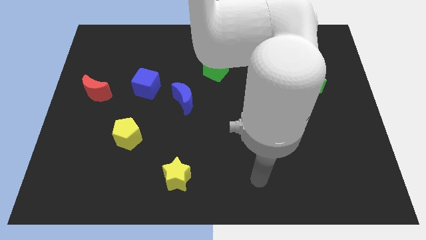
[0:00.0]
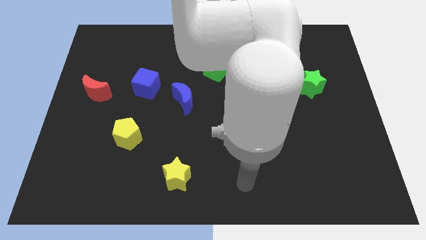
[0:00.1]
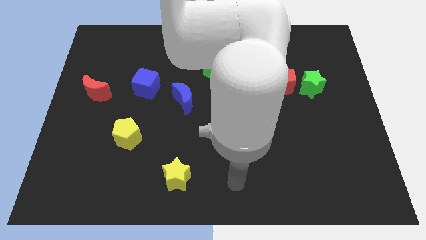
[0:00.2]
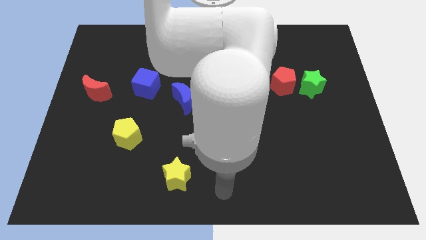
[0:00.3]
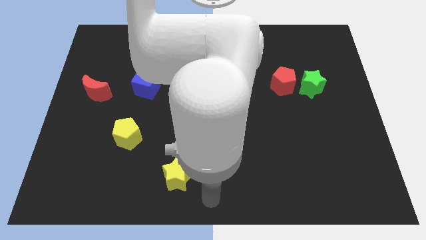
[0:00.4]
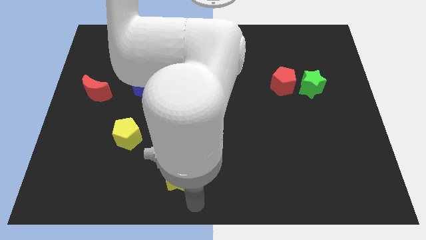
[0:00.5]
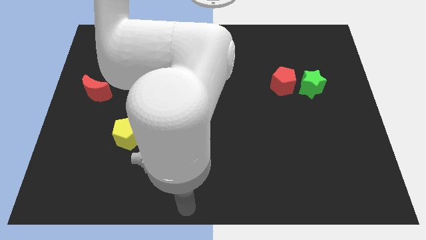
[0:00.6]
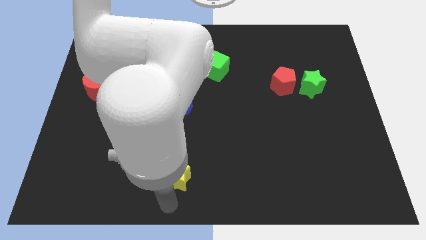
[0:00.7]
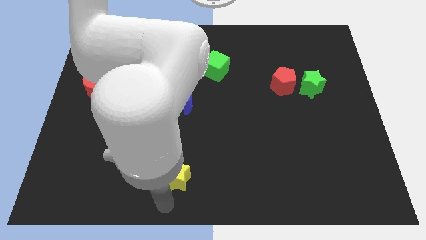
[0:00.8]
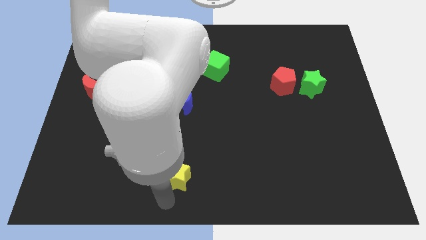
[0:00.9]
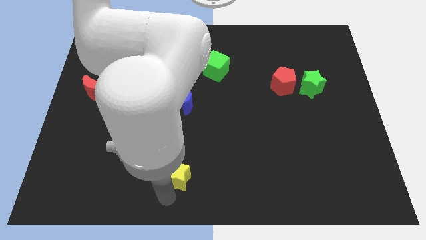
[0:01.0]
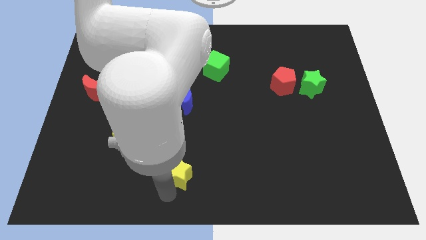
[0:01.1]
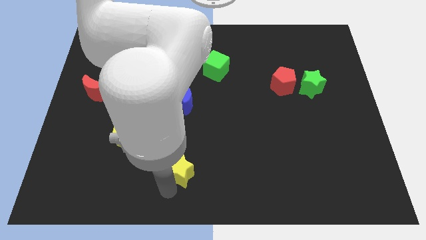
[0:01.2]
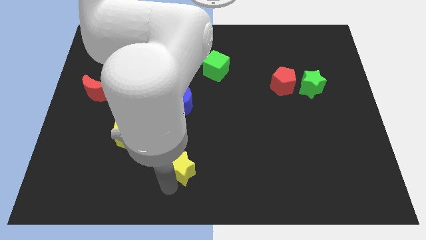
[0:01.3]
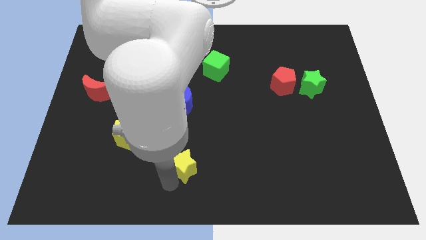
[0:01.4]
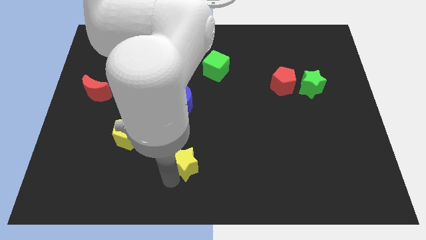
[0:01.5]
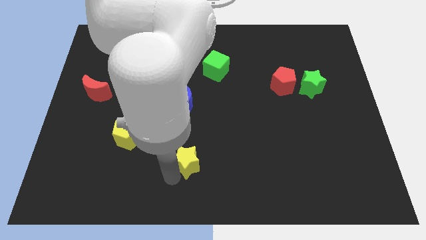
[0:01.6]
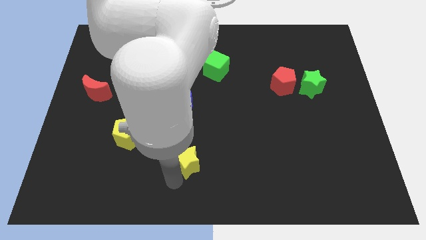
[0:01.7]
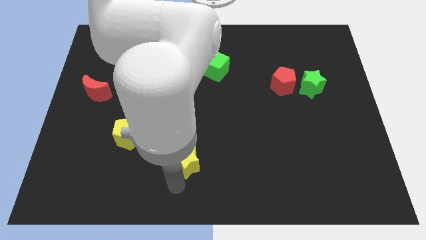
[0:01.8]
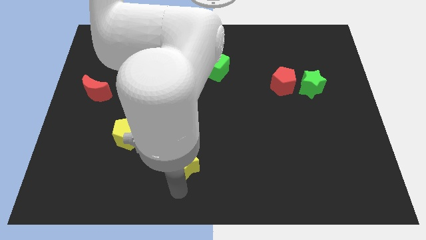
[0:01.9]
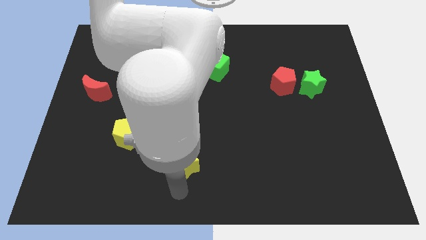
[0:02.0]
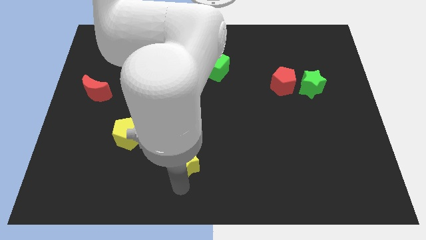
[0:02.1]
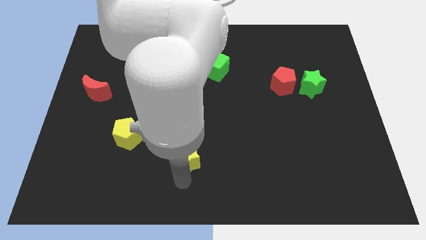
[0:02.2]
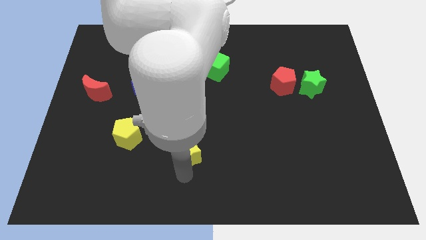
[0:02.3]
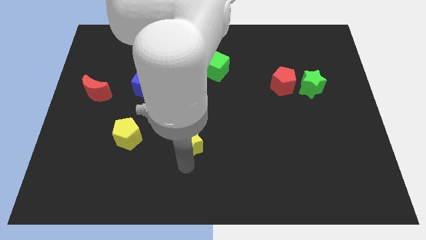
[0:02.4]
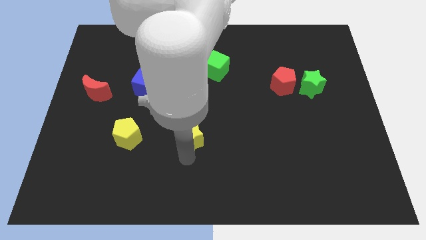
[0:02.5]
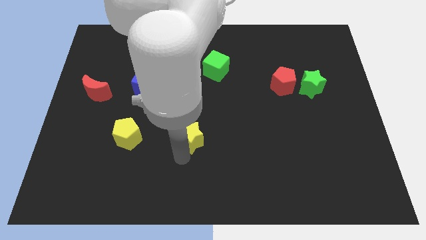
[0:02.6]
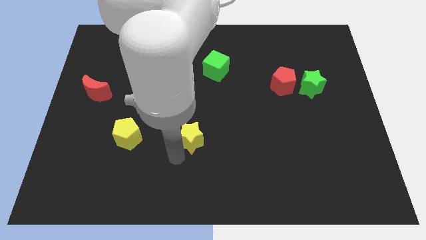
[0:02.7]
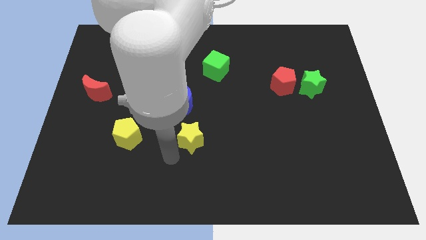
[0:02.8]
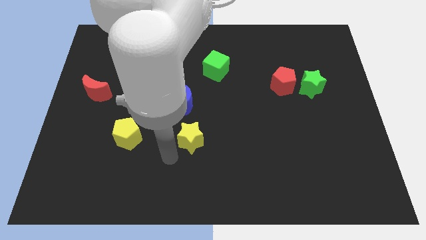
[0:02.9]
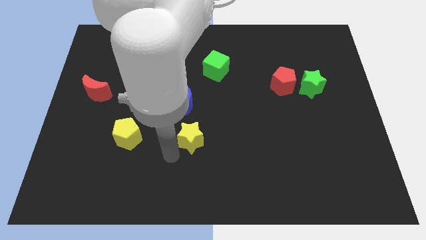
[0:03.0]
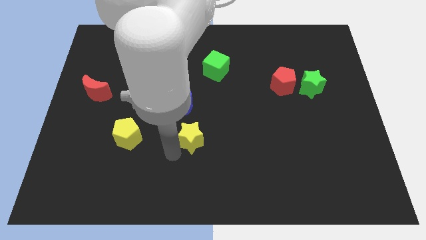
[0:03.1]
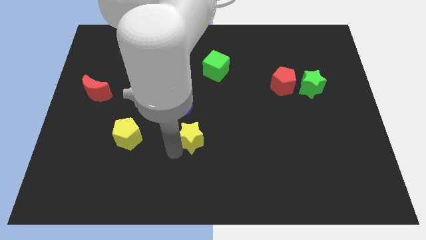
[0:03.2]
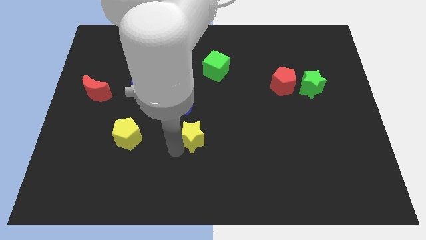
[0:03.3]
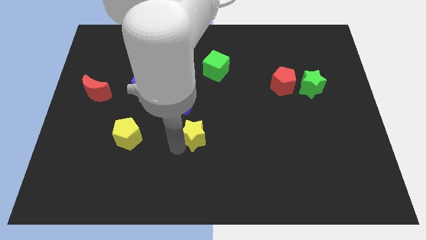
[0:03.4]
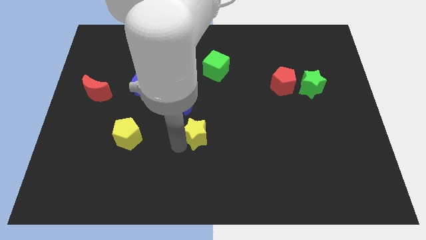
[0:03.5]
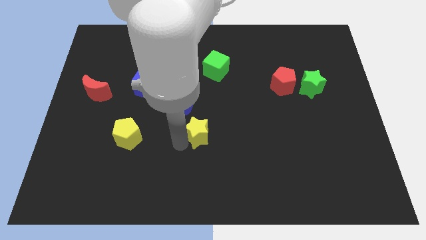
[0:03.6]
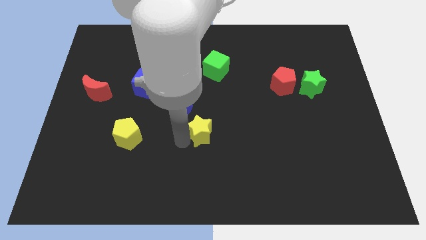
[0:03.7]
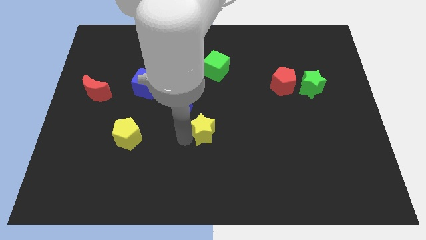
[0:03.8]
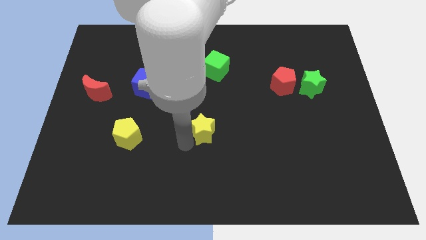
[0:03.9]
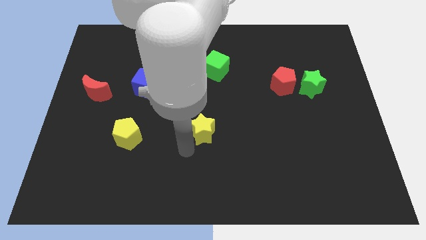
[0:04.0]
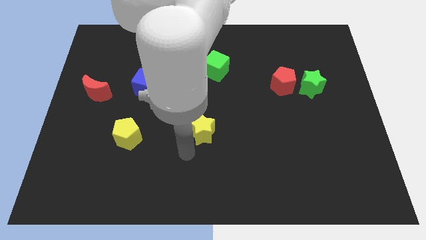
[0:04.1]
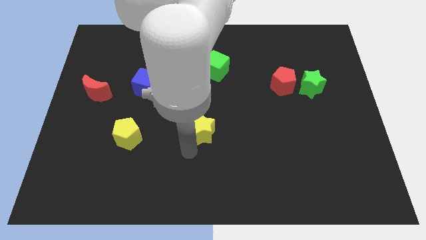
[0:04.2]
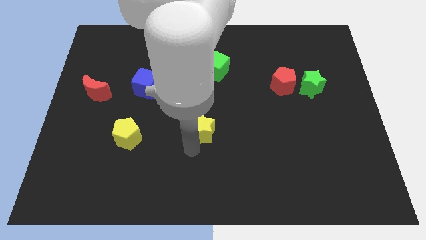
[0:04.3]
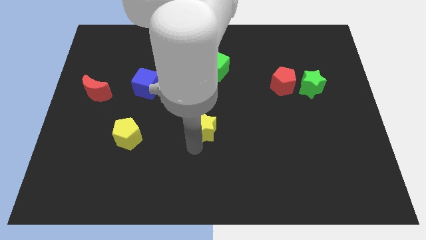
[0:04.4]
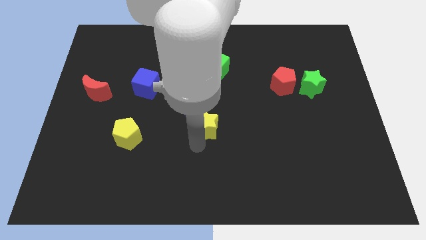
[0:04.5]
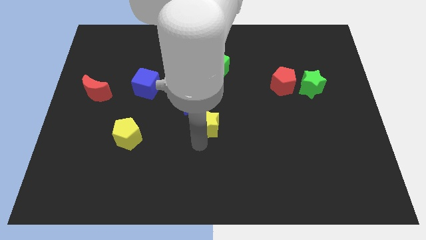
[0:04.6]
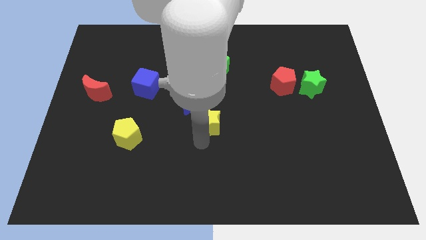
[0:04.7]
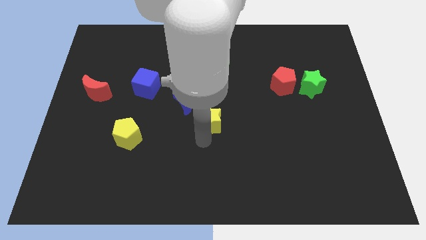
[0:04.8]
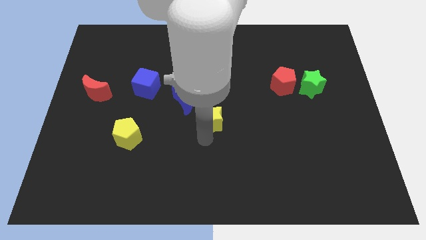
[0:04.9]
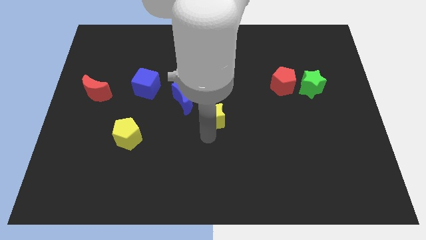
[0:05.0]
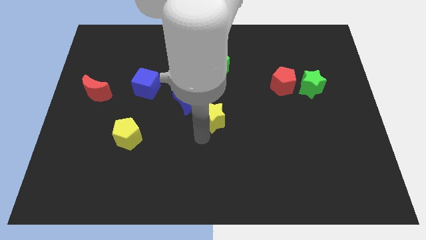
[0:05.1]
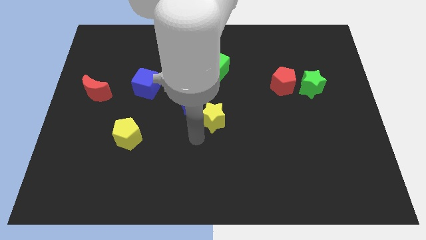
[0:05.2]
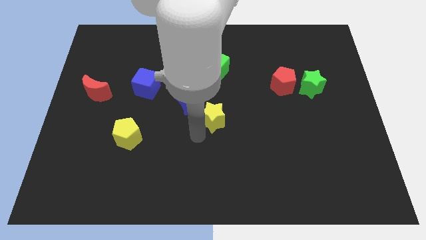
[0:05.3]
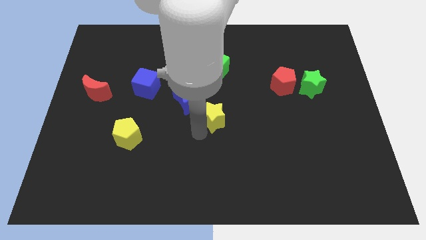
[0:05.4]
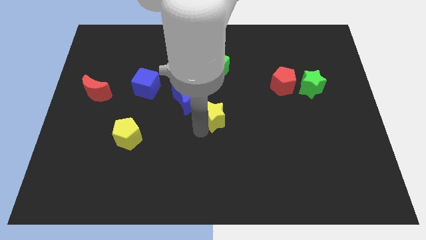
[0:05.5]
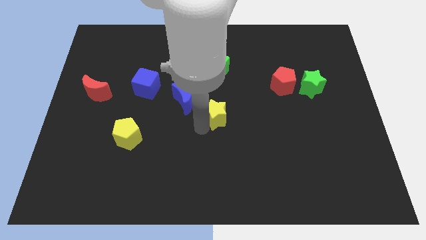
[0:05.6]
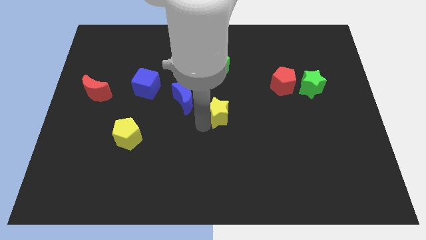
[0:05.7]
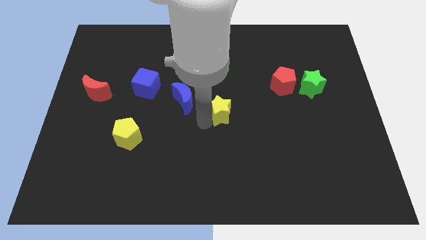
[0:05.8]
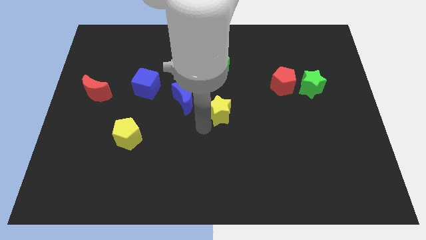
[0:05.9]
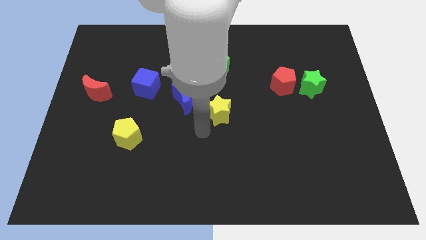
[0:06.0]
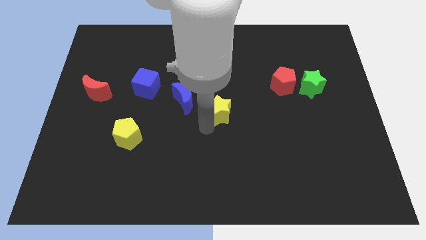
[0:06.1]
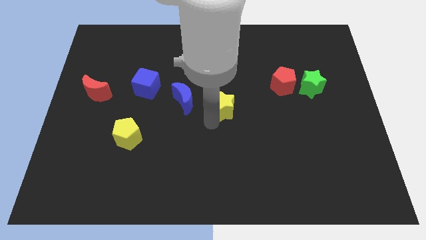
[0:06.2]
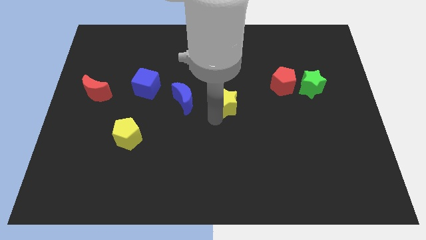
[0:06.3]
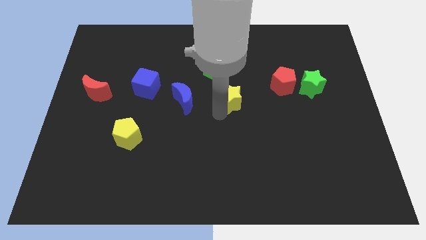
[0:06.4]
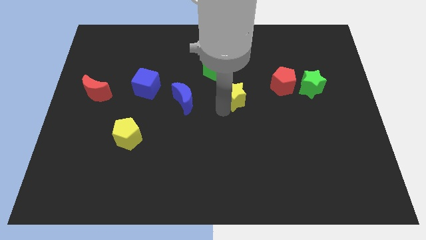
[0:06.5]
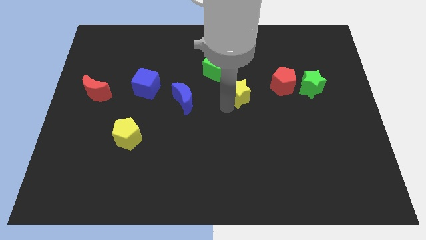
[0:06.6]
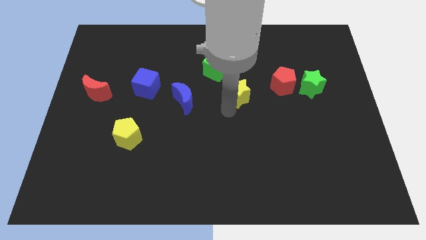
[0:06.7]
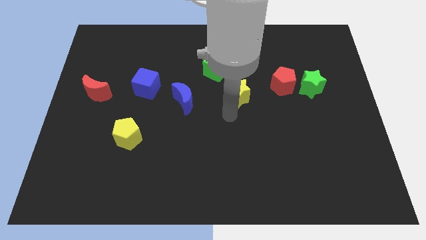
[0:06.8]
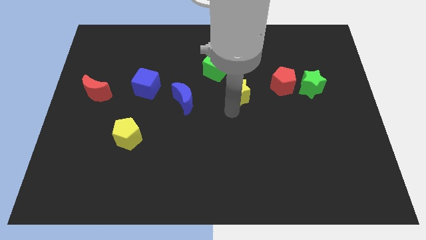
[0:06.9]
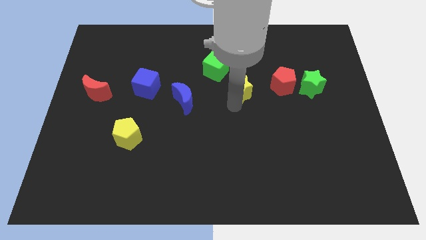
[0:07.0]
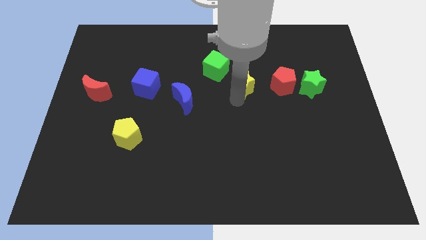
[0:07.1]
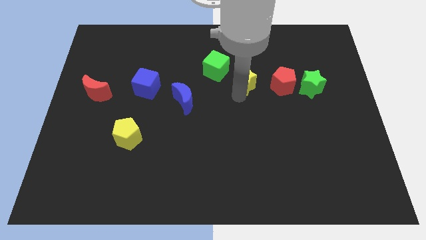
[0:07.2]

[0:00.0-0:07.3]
push the yellow star just right of the green cube
